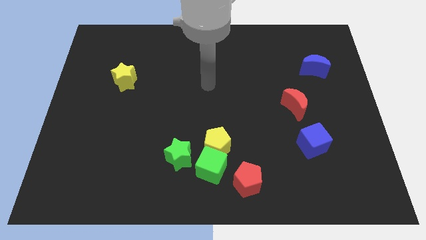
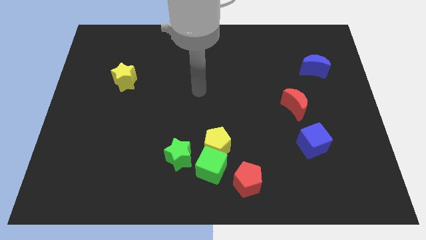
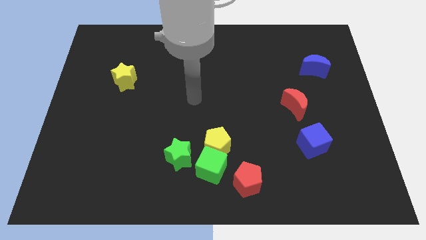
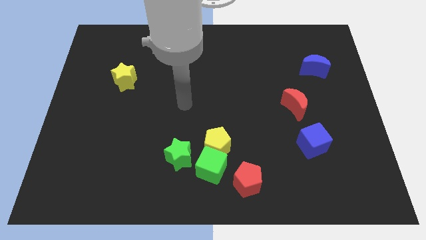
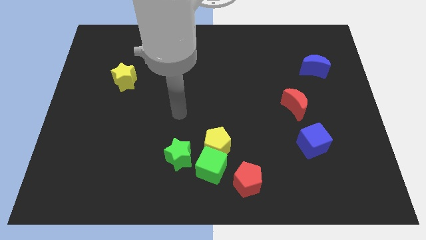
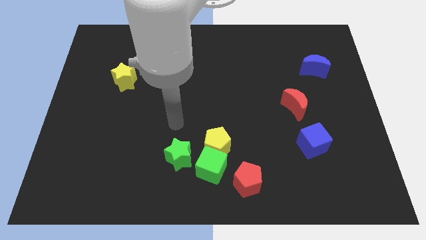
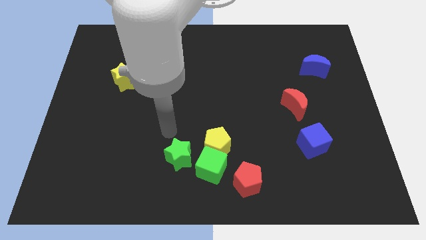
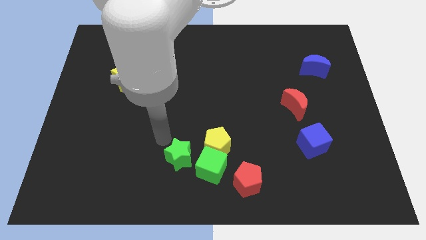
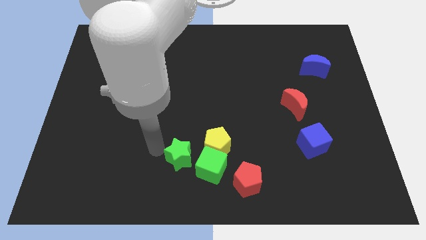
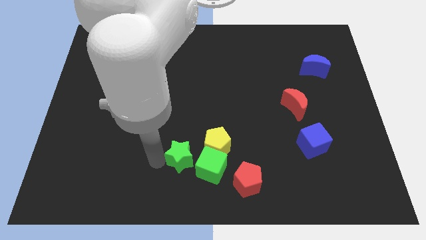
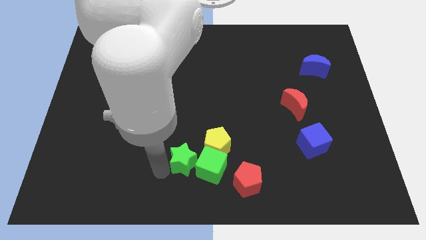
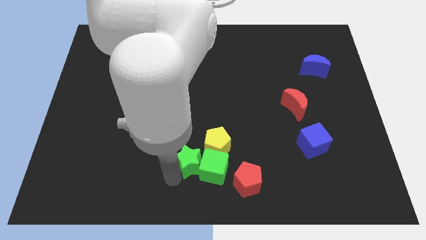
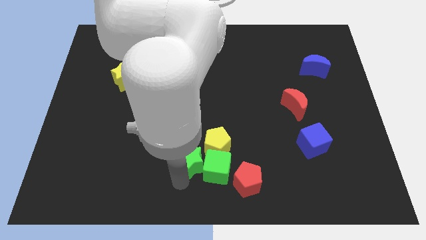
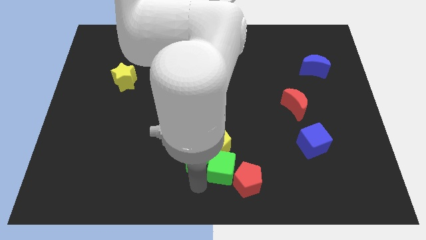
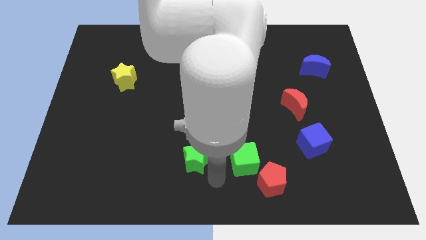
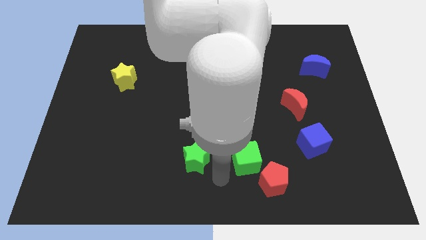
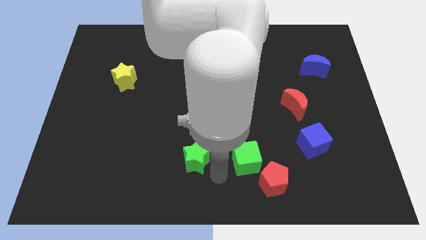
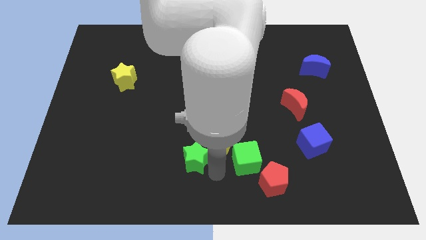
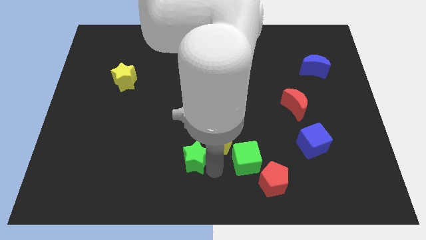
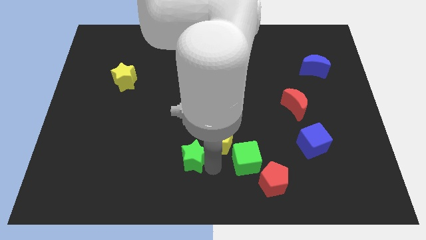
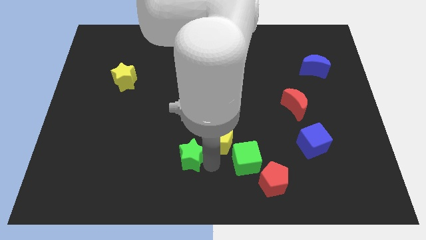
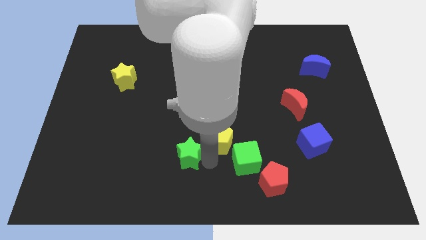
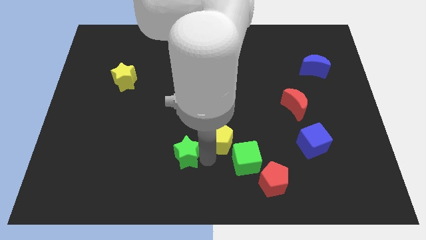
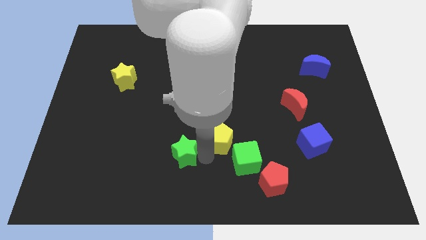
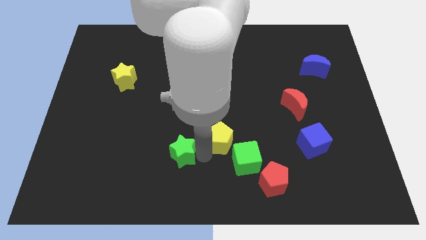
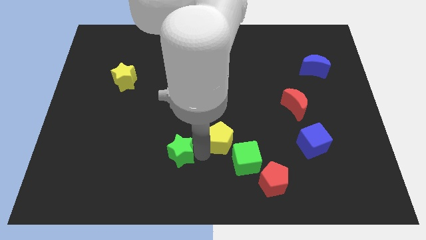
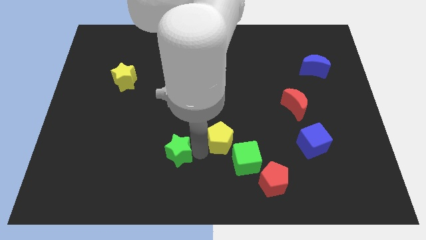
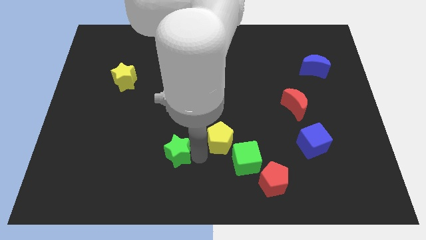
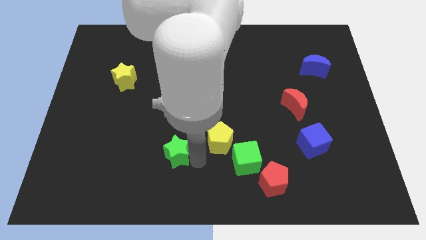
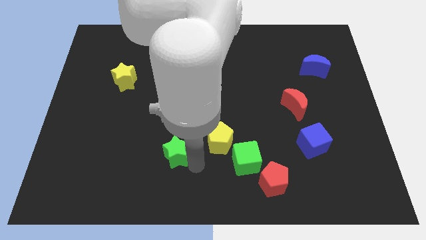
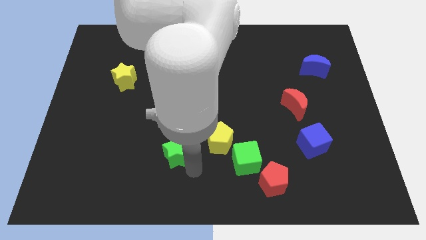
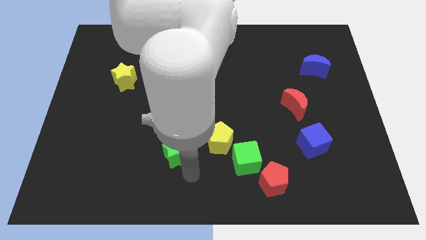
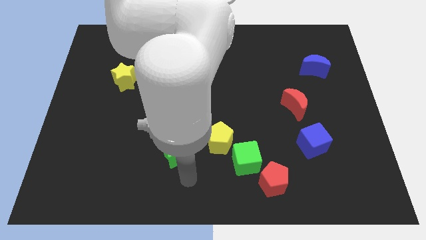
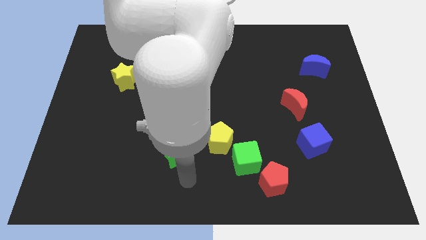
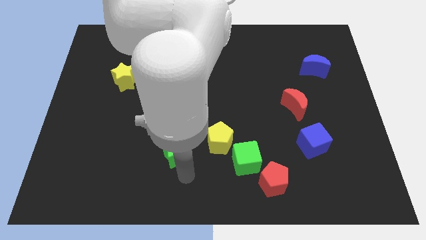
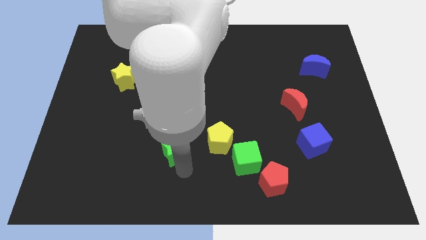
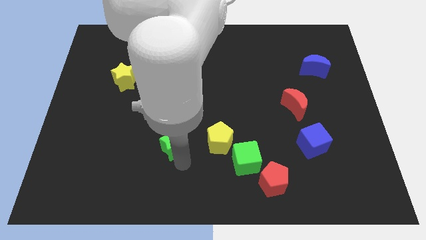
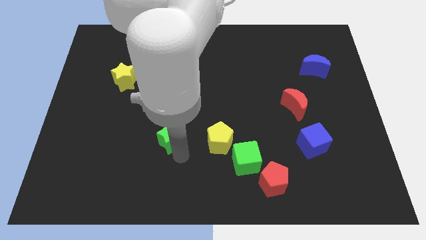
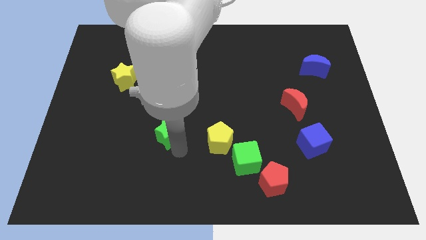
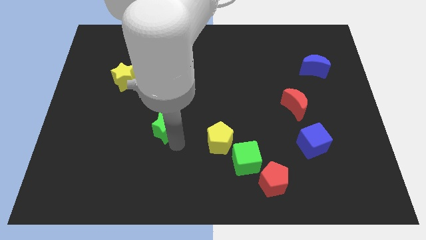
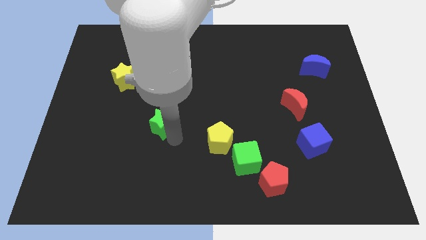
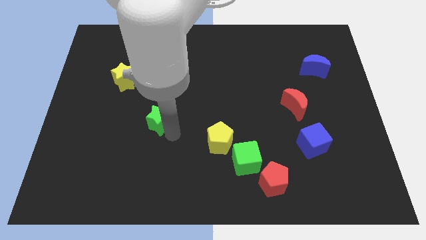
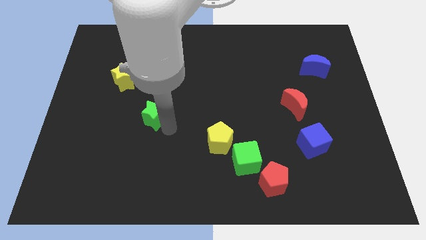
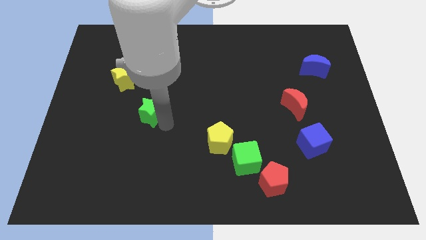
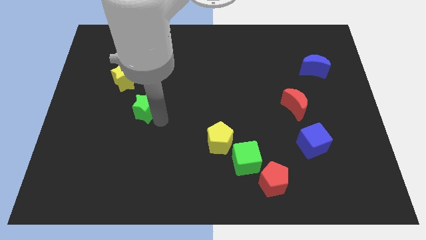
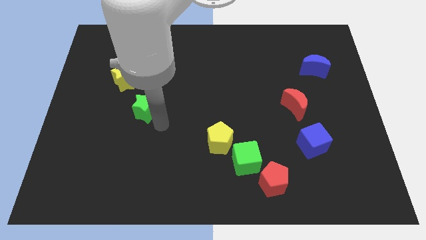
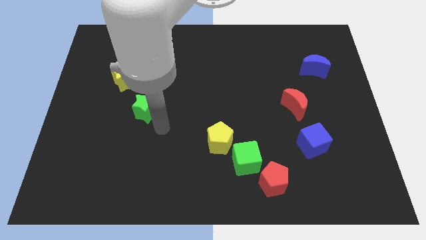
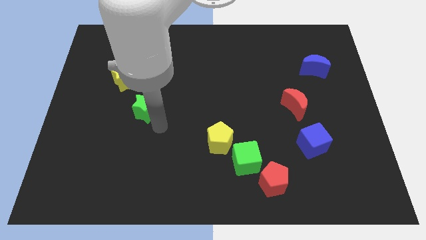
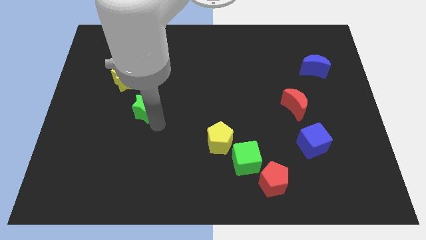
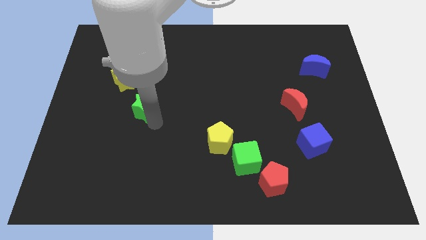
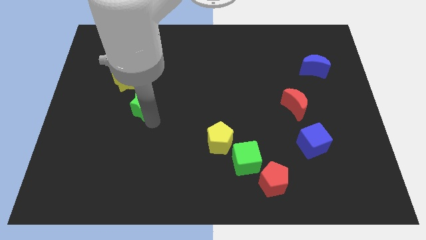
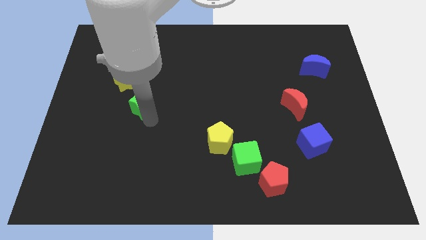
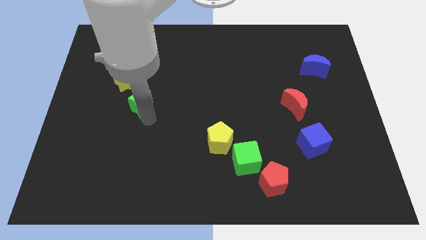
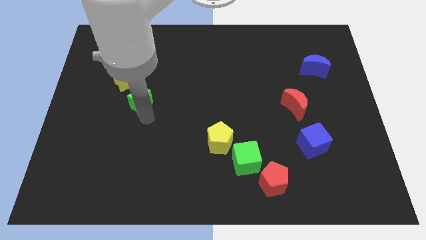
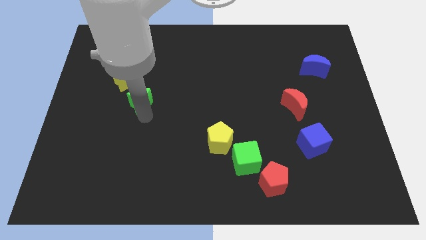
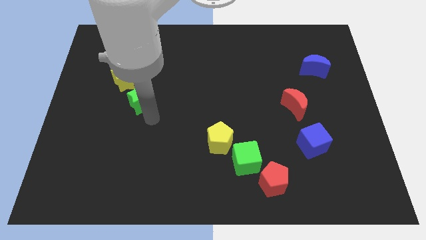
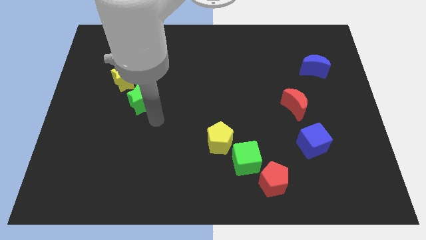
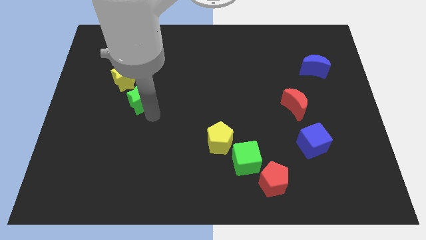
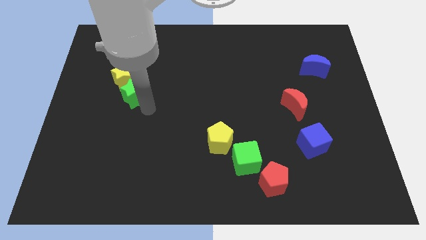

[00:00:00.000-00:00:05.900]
push the green star next to the yellow star

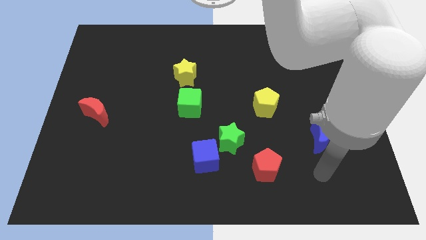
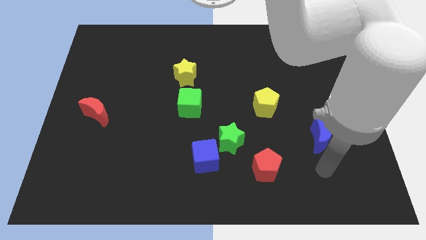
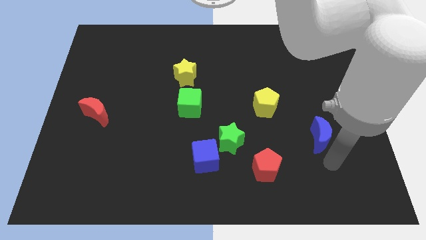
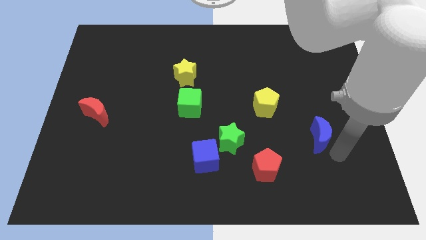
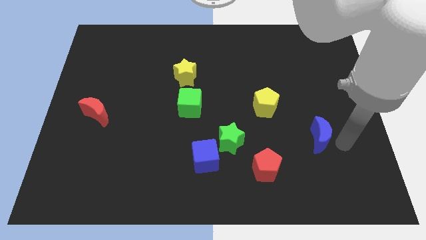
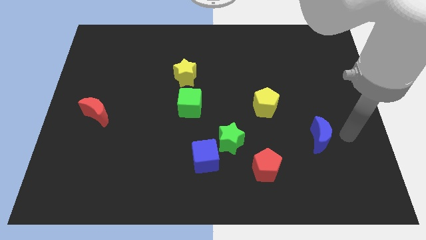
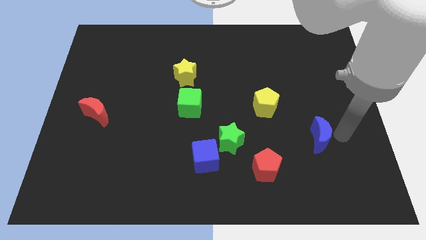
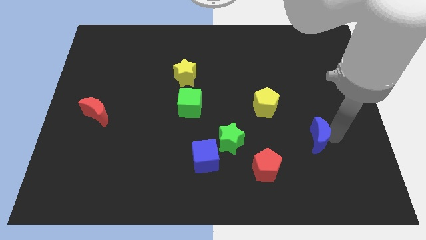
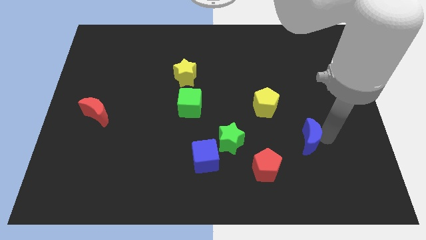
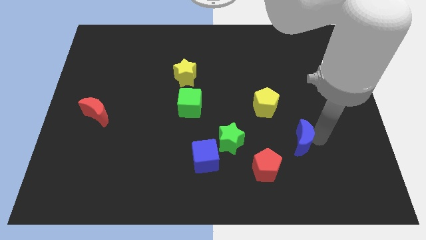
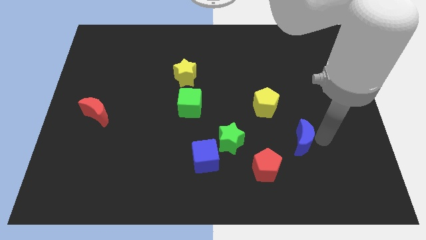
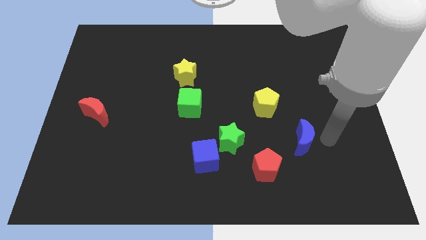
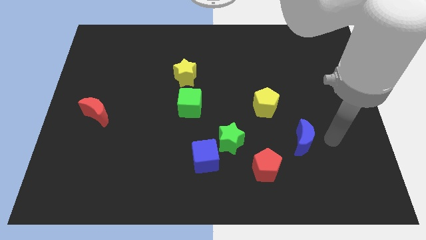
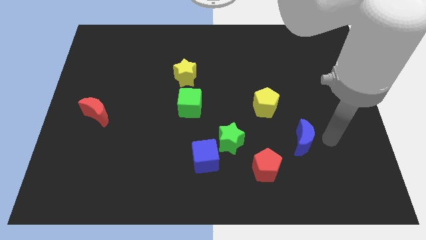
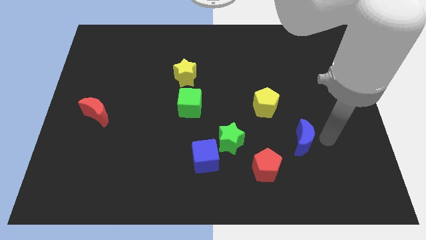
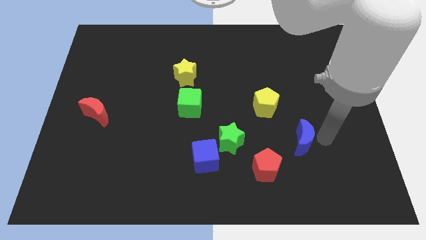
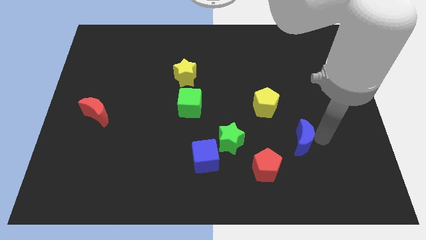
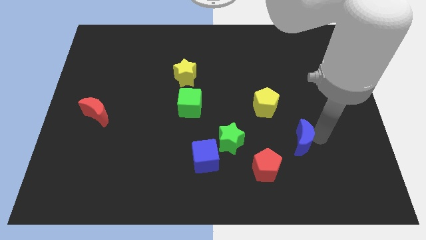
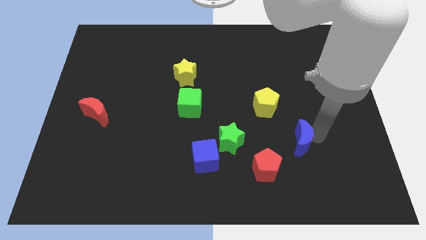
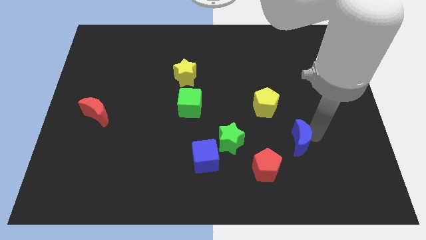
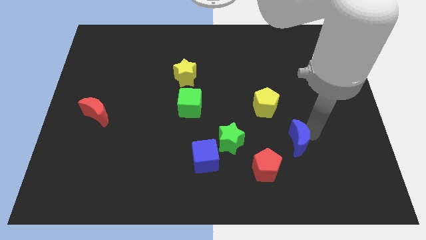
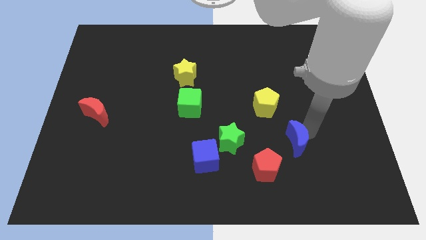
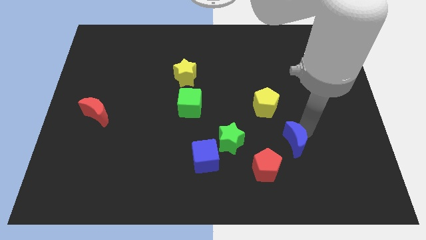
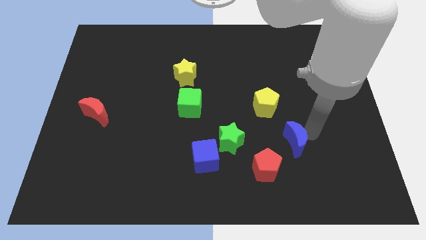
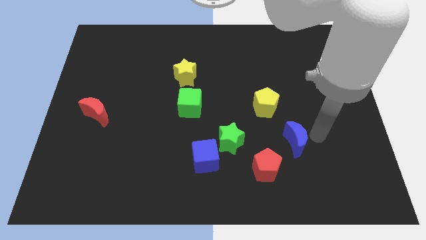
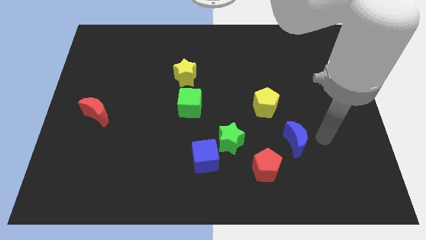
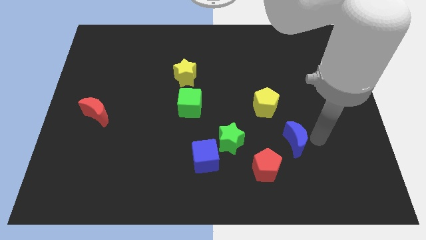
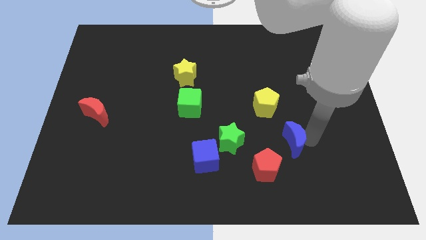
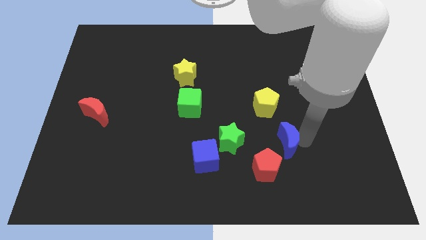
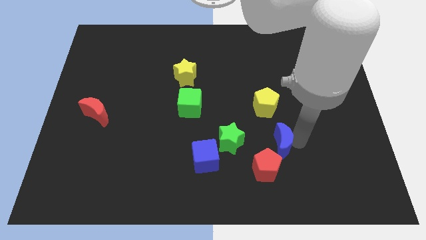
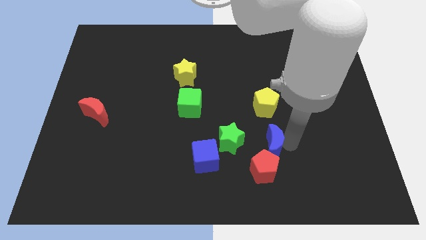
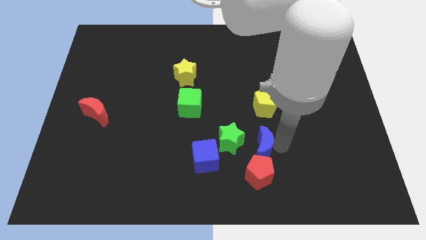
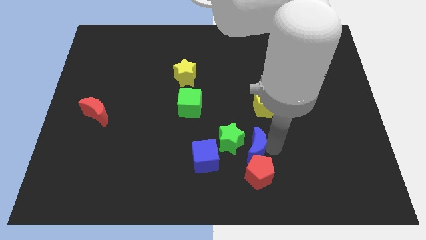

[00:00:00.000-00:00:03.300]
move the blue moon next to the green star
